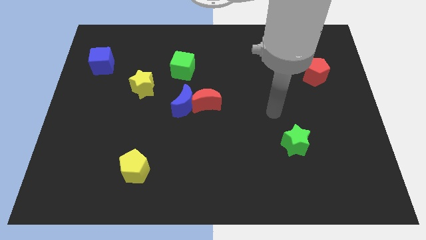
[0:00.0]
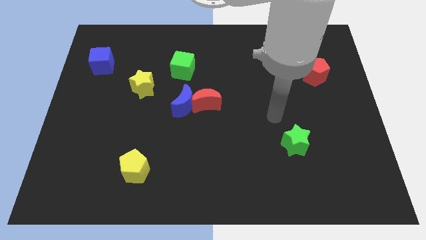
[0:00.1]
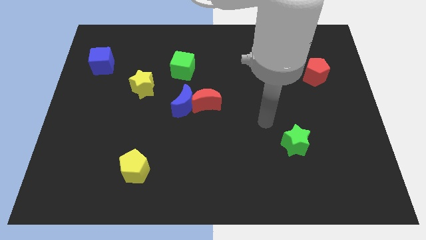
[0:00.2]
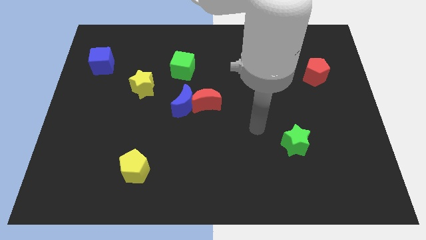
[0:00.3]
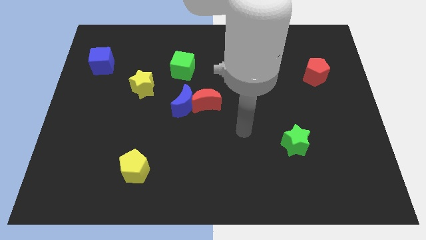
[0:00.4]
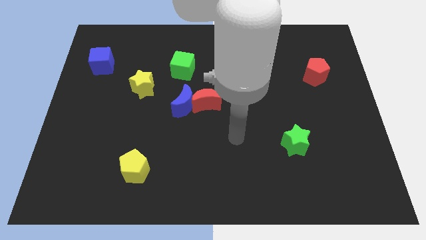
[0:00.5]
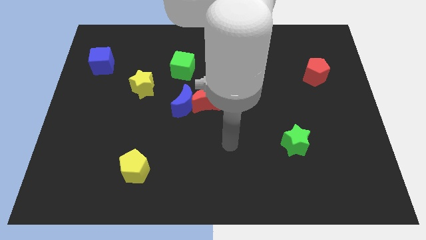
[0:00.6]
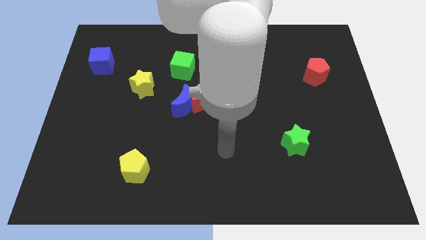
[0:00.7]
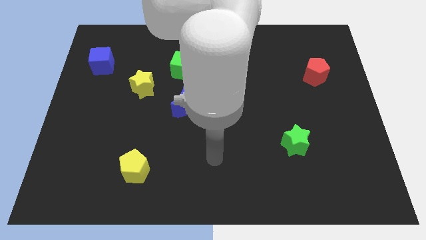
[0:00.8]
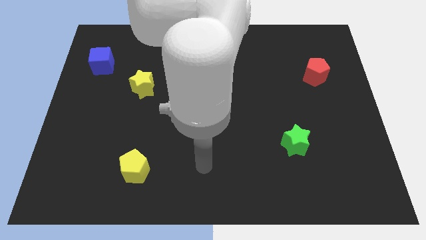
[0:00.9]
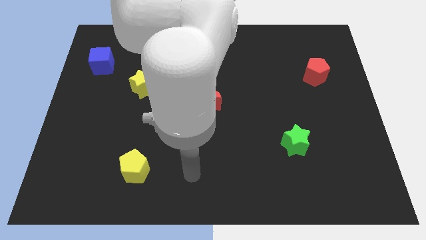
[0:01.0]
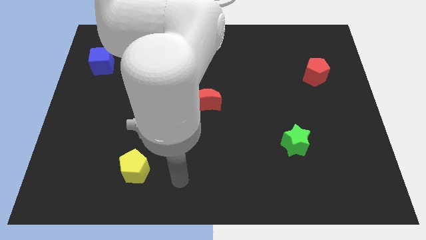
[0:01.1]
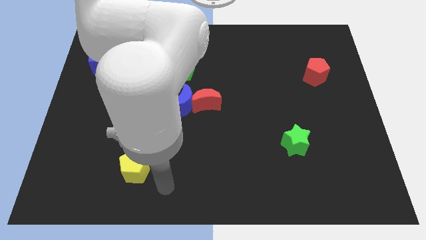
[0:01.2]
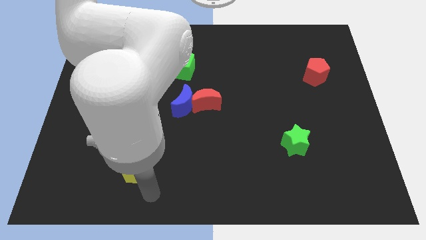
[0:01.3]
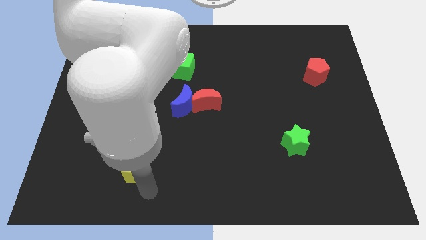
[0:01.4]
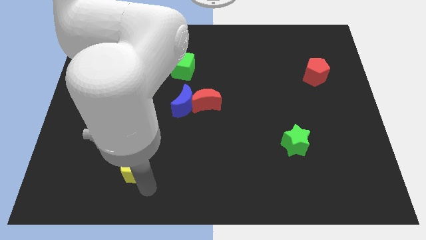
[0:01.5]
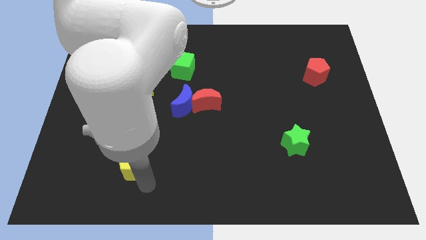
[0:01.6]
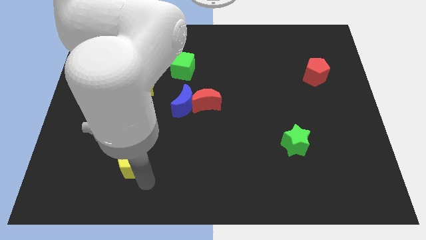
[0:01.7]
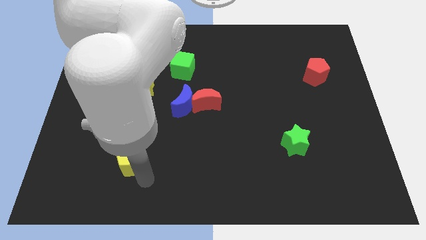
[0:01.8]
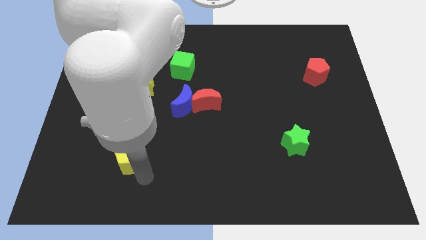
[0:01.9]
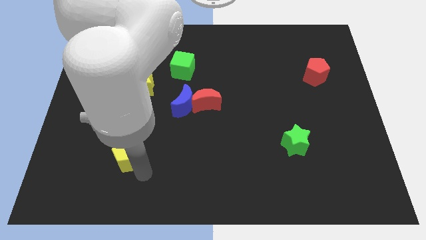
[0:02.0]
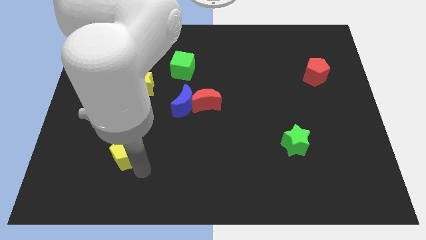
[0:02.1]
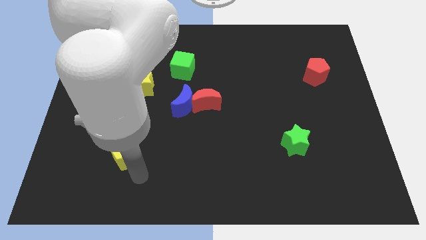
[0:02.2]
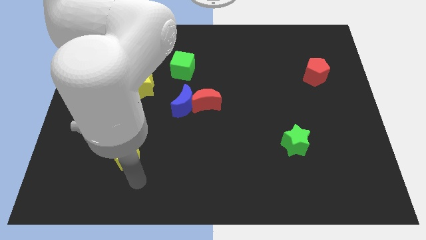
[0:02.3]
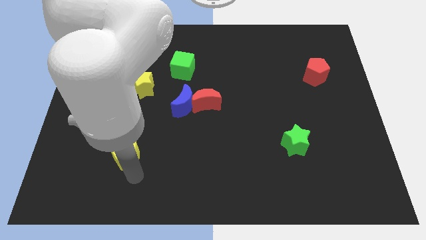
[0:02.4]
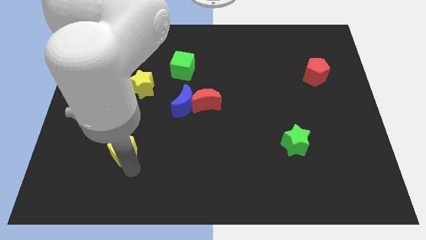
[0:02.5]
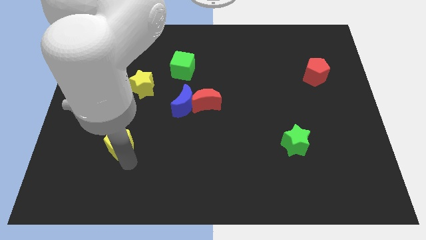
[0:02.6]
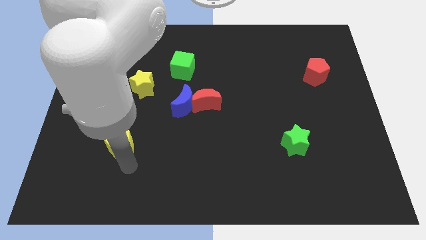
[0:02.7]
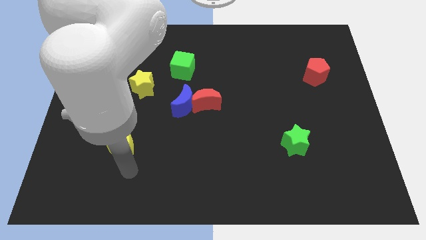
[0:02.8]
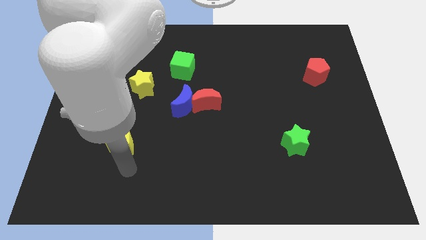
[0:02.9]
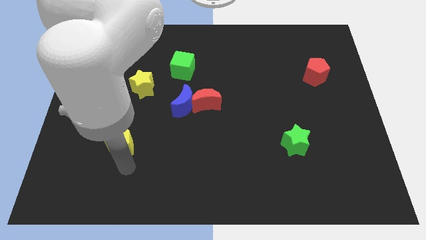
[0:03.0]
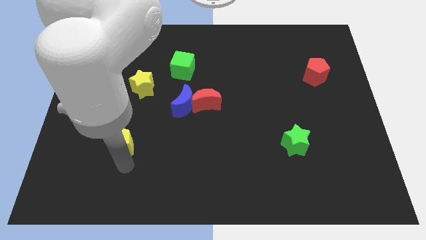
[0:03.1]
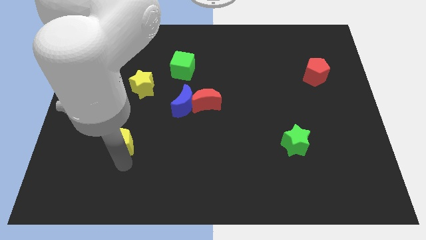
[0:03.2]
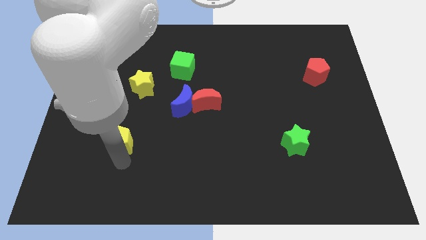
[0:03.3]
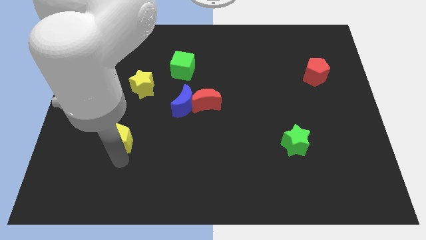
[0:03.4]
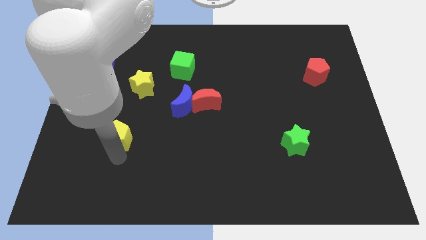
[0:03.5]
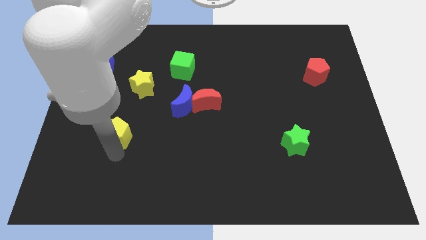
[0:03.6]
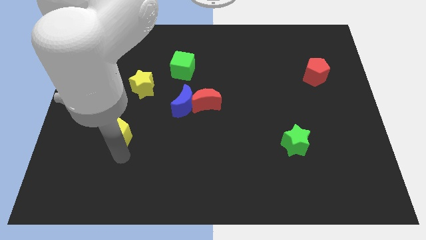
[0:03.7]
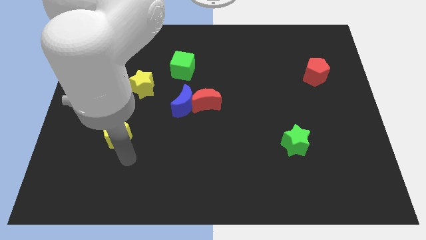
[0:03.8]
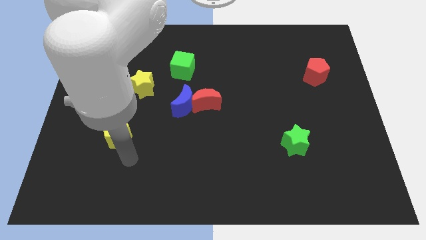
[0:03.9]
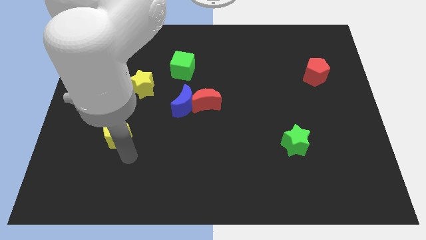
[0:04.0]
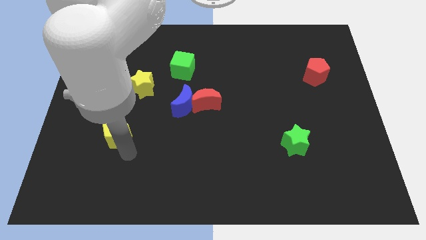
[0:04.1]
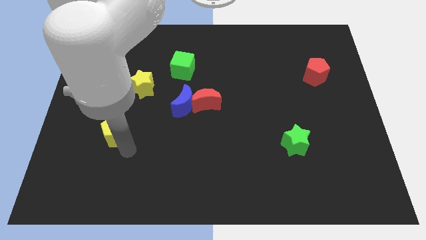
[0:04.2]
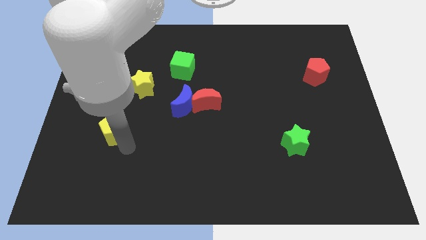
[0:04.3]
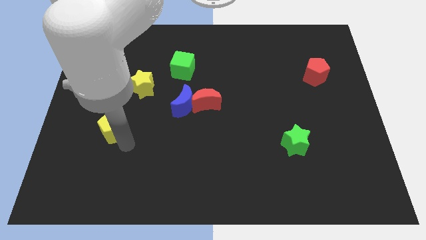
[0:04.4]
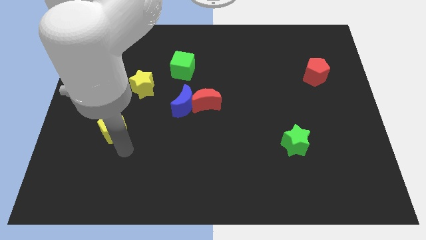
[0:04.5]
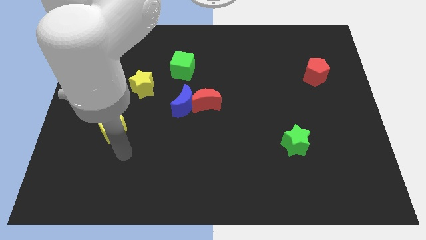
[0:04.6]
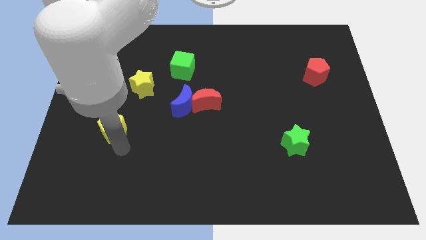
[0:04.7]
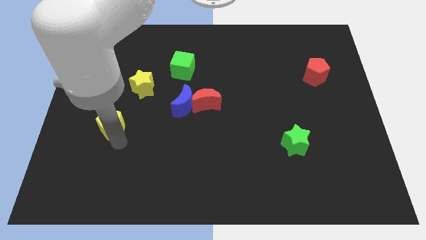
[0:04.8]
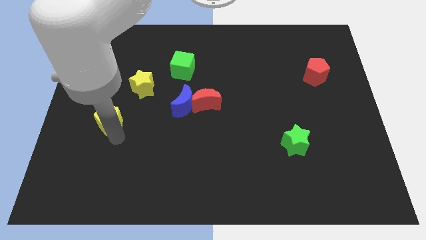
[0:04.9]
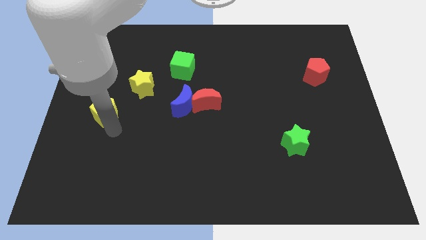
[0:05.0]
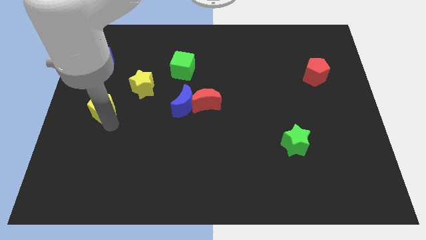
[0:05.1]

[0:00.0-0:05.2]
put the yellow pentagon to the bottom side of the blue cube

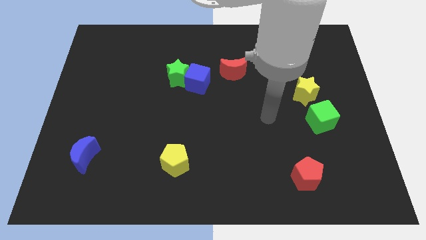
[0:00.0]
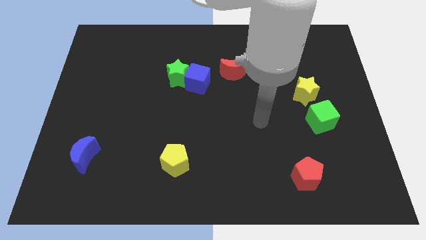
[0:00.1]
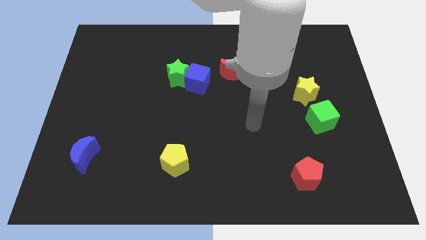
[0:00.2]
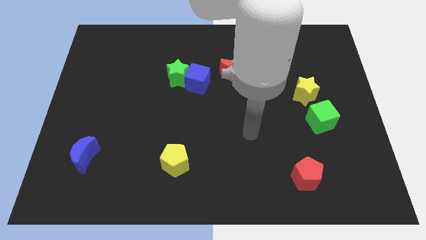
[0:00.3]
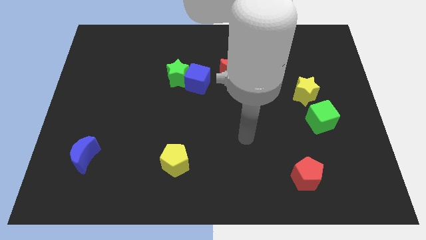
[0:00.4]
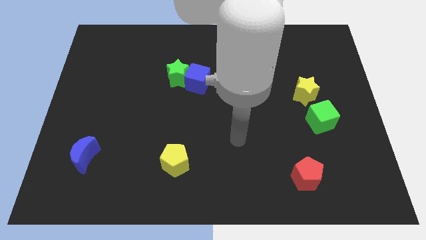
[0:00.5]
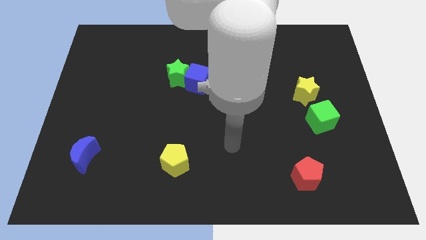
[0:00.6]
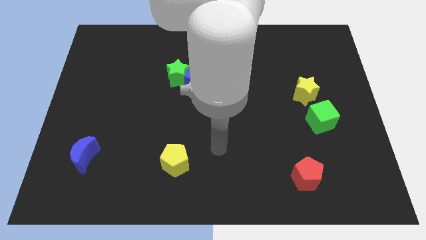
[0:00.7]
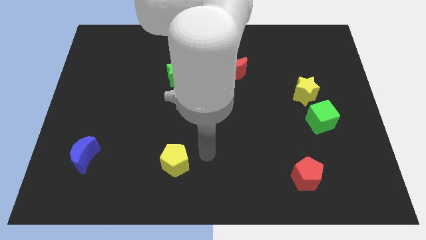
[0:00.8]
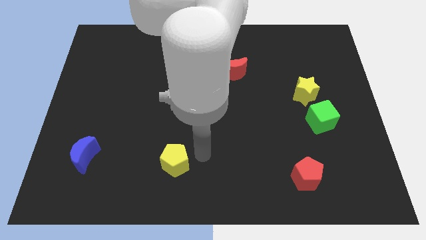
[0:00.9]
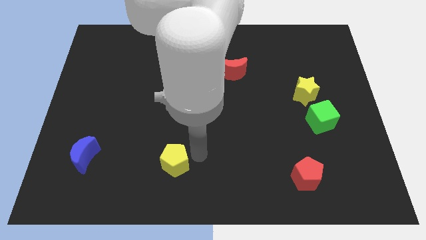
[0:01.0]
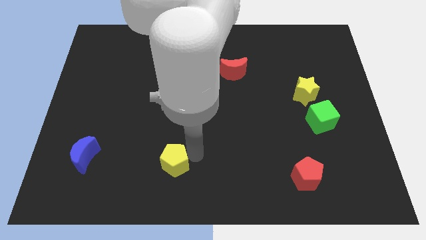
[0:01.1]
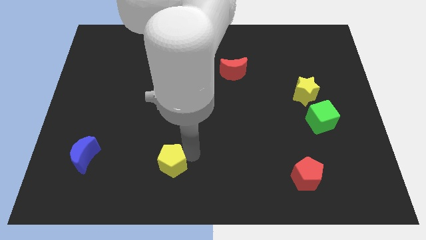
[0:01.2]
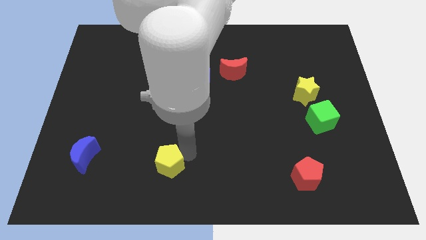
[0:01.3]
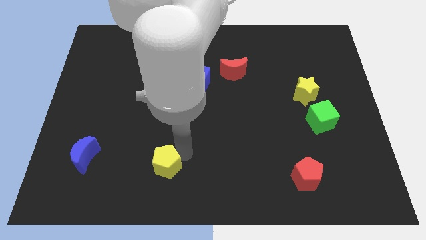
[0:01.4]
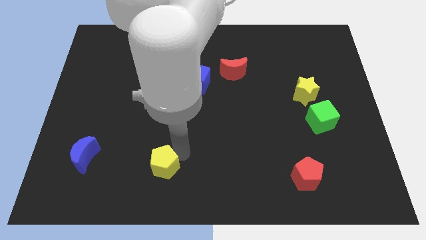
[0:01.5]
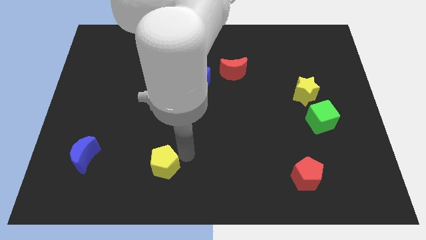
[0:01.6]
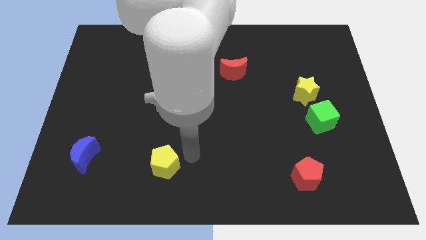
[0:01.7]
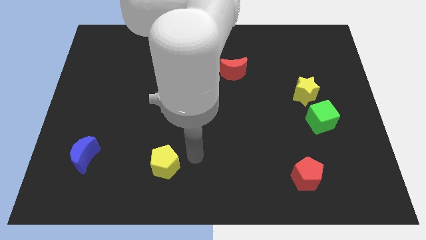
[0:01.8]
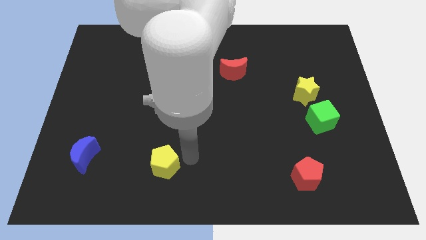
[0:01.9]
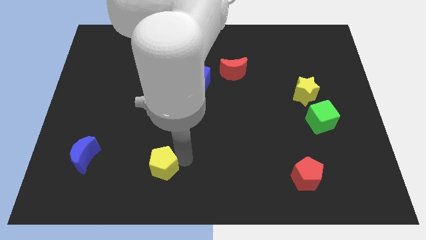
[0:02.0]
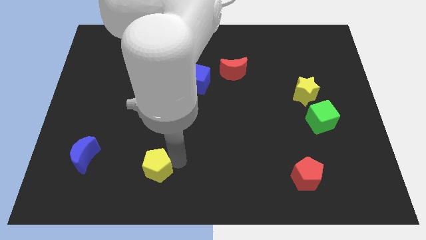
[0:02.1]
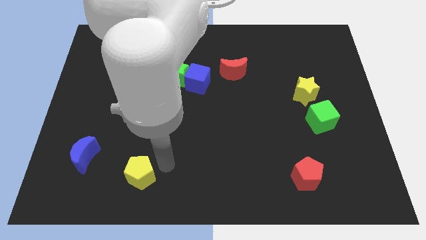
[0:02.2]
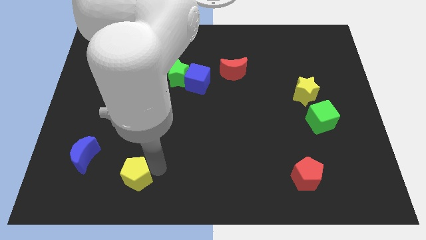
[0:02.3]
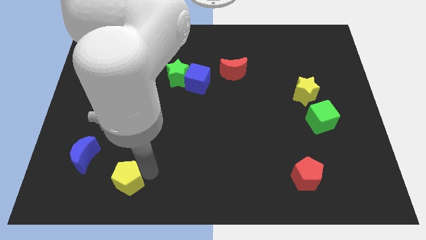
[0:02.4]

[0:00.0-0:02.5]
put the yellow pentagon diagonally down and to the right of the blue moon
